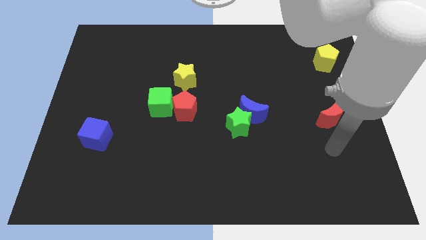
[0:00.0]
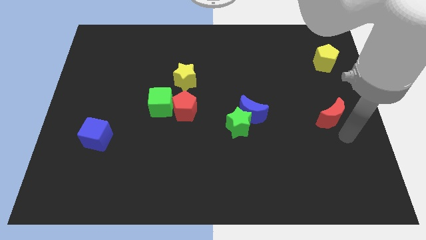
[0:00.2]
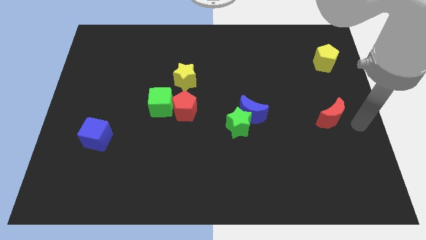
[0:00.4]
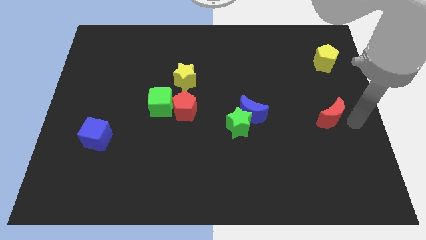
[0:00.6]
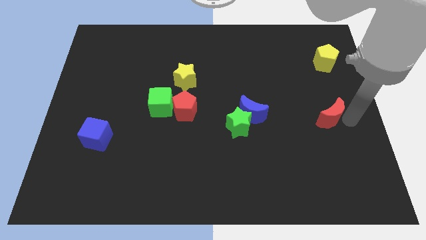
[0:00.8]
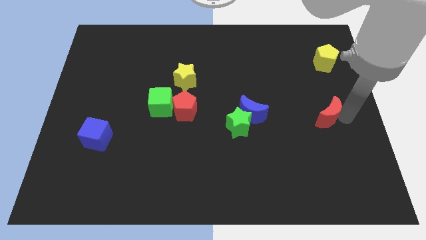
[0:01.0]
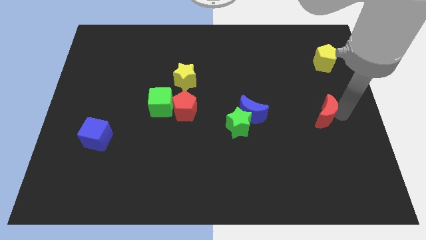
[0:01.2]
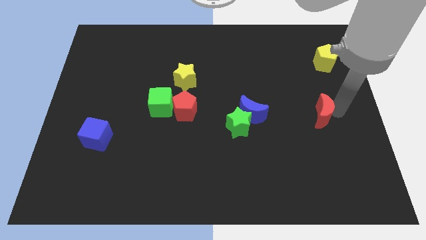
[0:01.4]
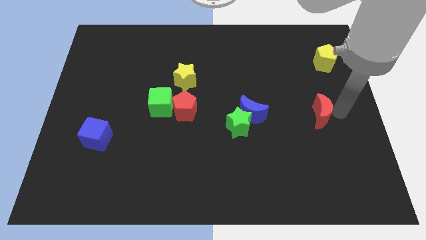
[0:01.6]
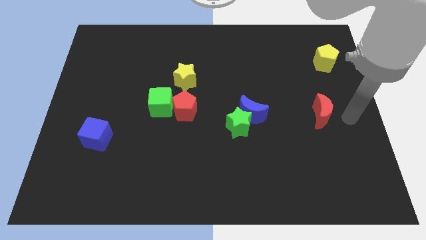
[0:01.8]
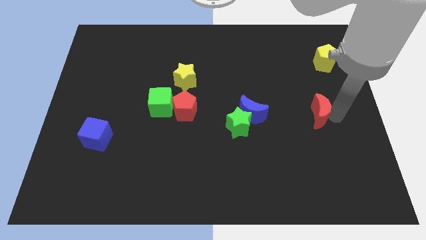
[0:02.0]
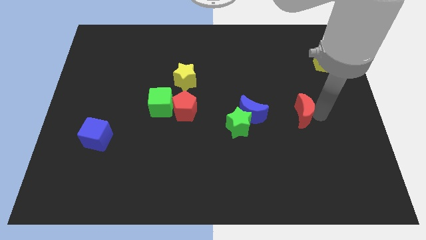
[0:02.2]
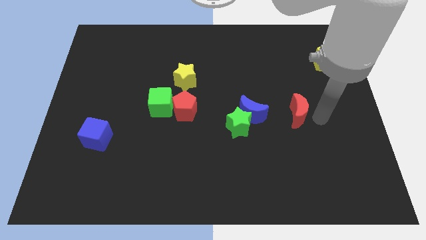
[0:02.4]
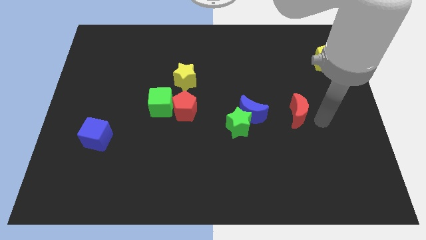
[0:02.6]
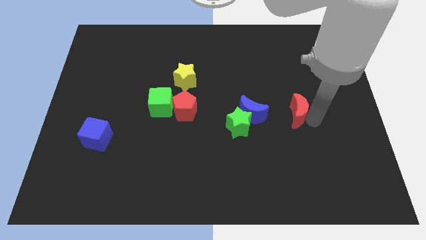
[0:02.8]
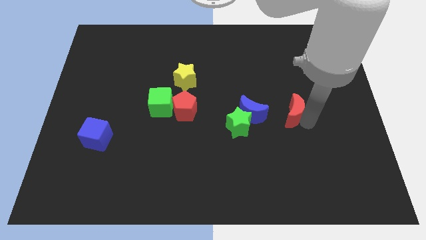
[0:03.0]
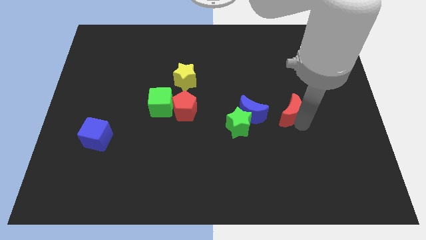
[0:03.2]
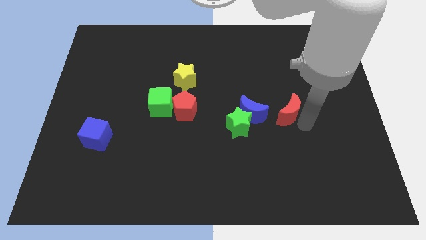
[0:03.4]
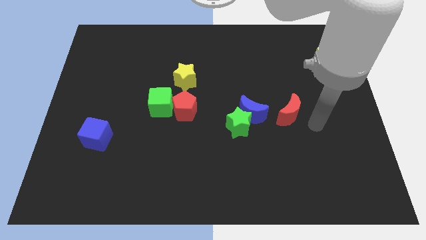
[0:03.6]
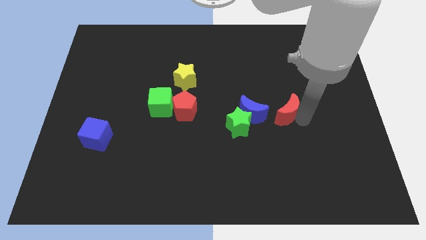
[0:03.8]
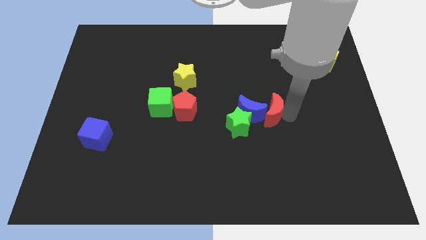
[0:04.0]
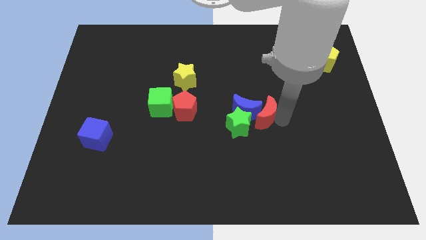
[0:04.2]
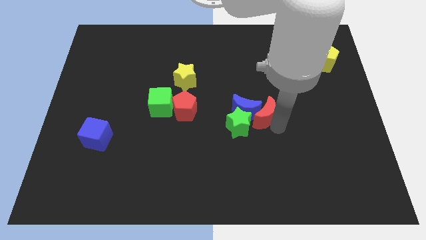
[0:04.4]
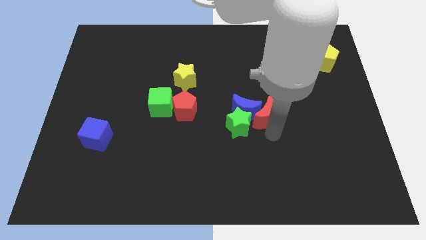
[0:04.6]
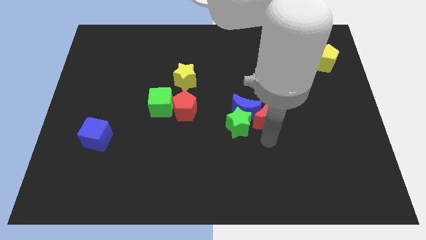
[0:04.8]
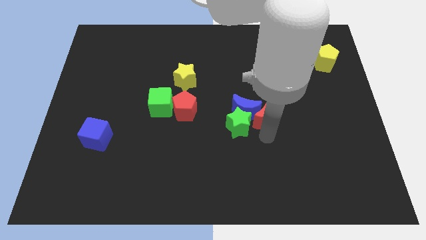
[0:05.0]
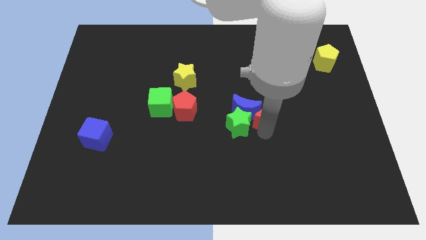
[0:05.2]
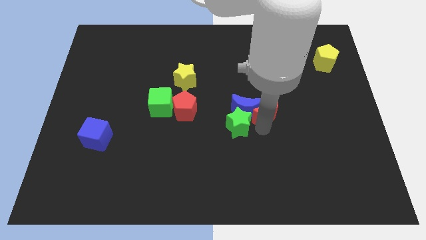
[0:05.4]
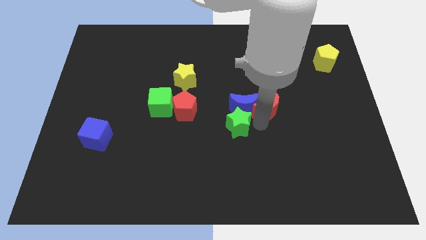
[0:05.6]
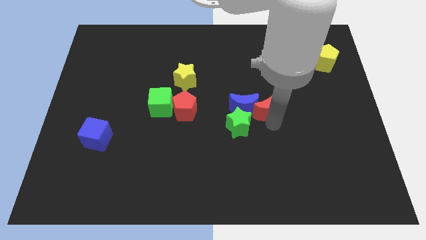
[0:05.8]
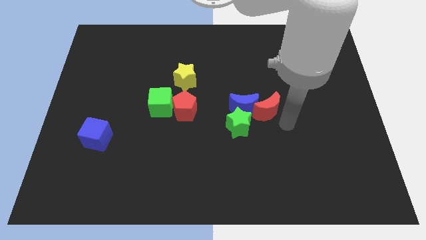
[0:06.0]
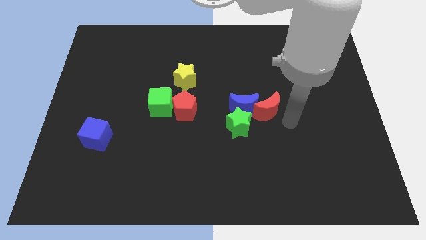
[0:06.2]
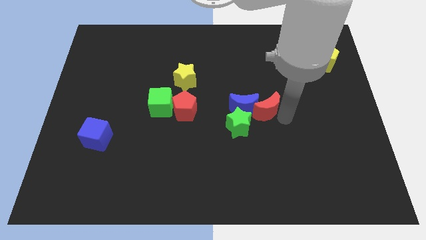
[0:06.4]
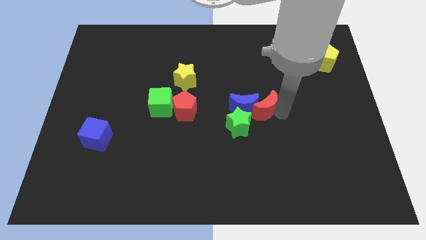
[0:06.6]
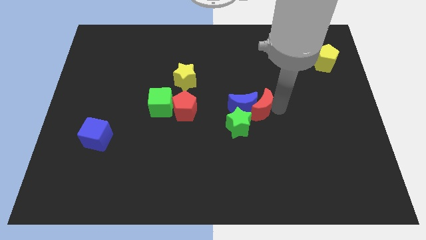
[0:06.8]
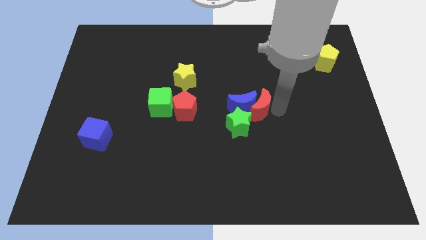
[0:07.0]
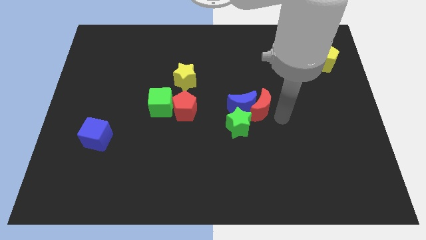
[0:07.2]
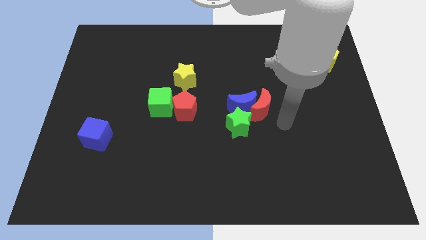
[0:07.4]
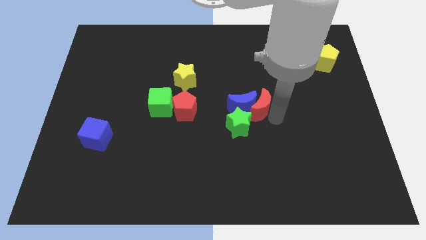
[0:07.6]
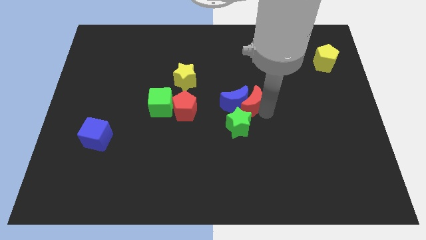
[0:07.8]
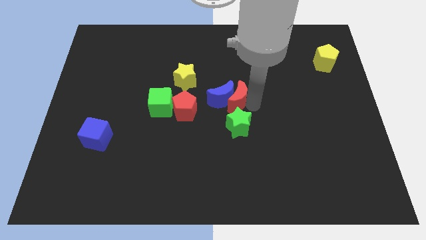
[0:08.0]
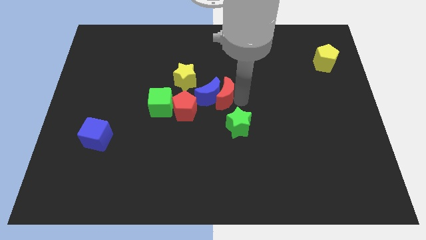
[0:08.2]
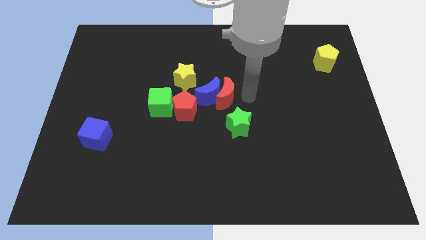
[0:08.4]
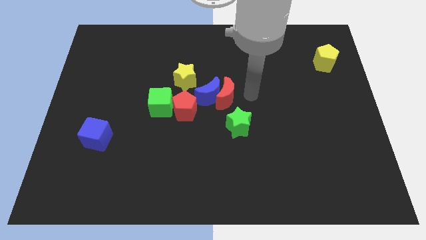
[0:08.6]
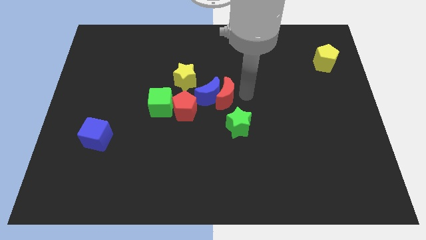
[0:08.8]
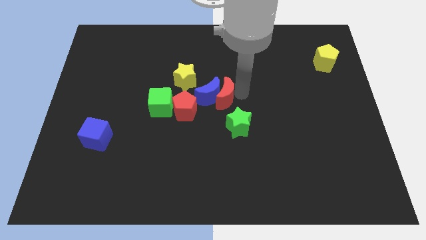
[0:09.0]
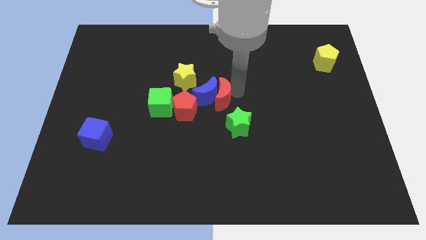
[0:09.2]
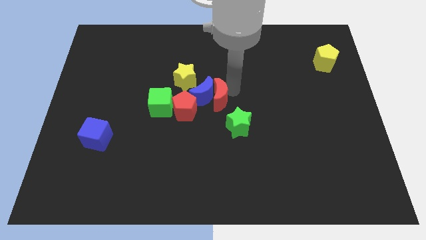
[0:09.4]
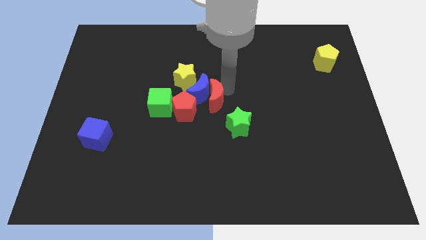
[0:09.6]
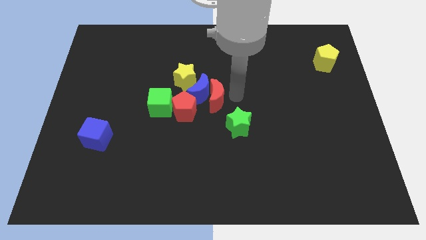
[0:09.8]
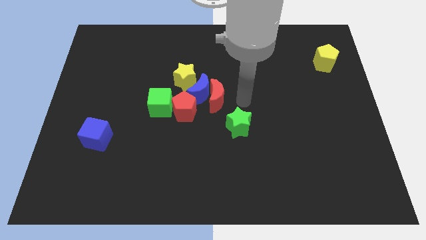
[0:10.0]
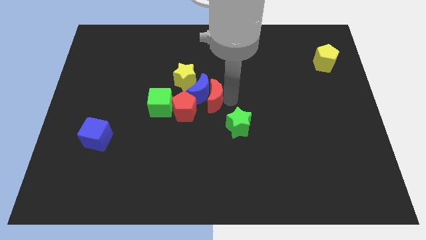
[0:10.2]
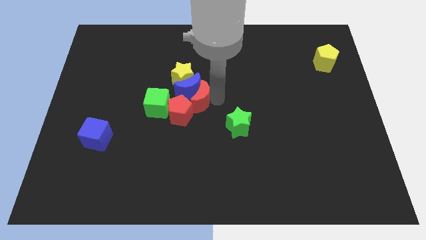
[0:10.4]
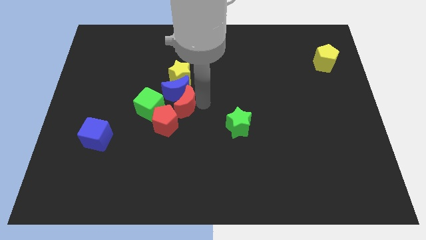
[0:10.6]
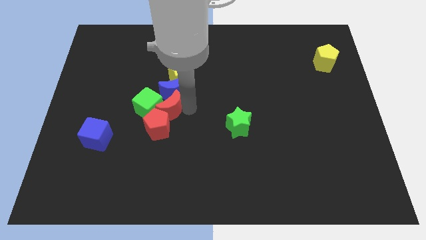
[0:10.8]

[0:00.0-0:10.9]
push the red moon to the green cube

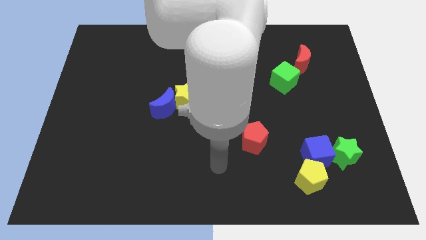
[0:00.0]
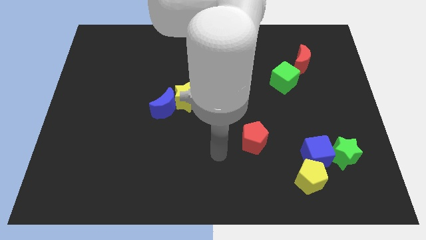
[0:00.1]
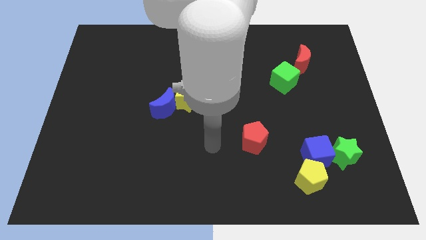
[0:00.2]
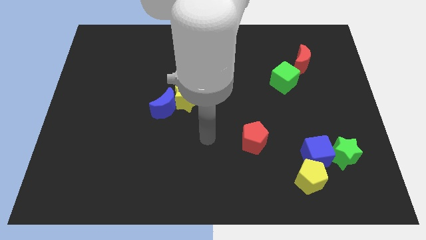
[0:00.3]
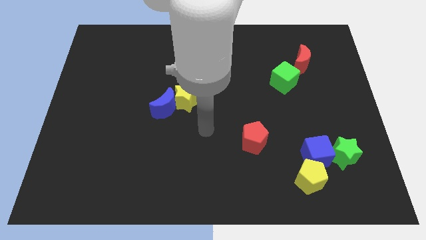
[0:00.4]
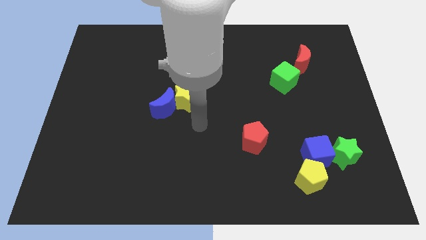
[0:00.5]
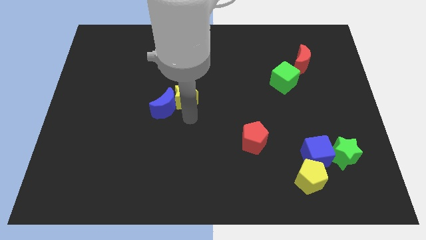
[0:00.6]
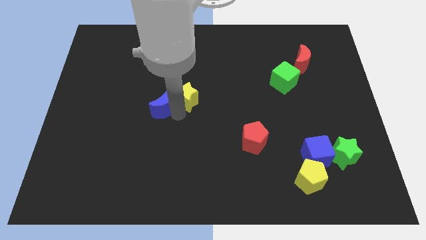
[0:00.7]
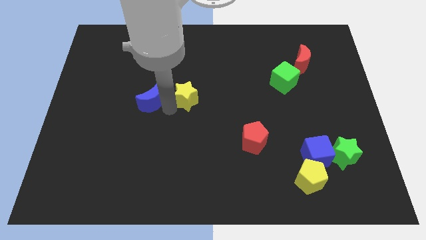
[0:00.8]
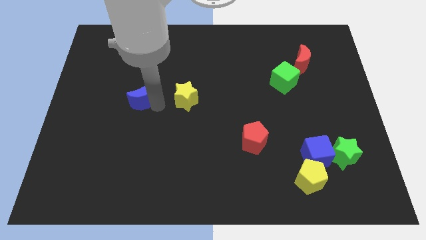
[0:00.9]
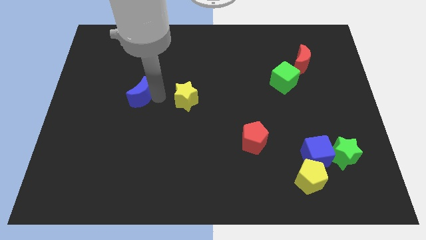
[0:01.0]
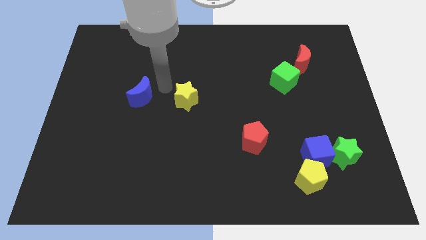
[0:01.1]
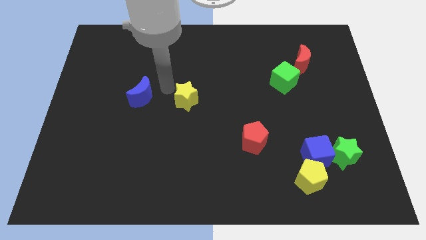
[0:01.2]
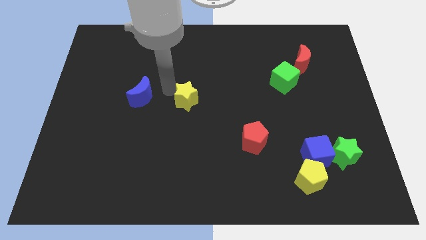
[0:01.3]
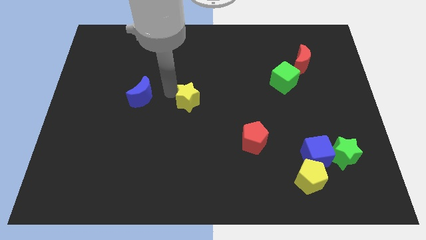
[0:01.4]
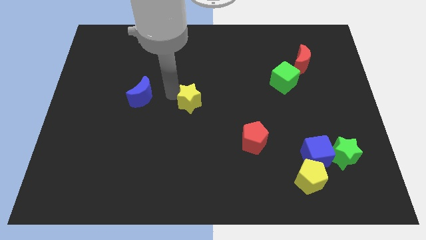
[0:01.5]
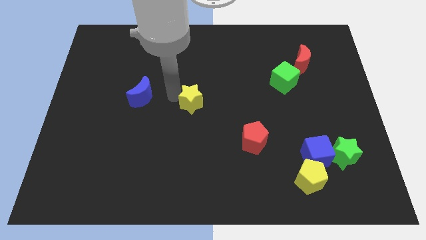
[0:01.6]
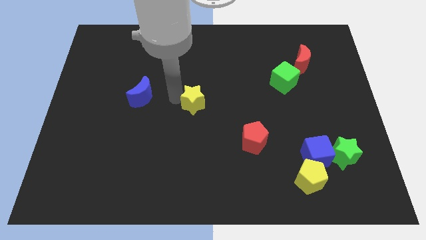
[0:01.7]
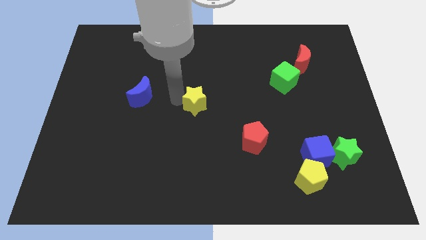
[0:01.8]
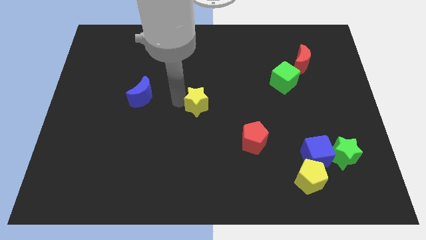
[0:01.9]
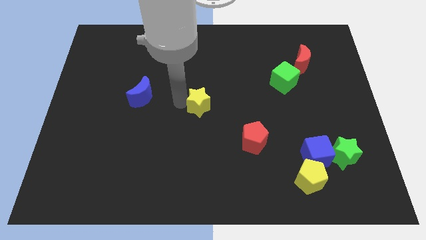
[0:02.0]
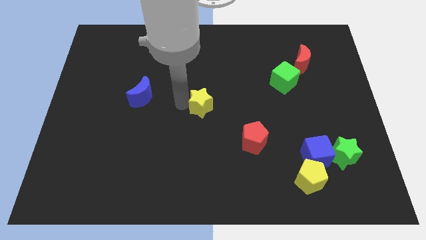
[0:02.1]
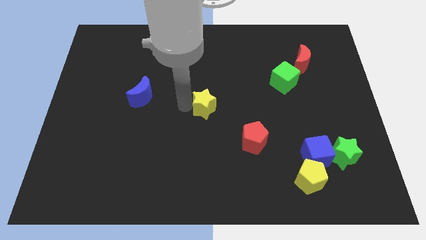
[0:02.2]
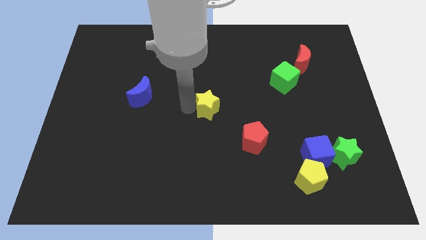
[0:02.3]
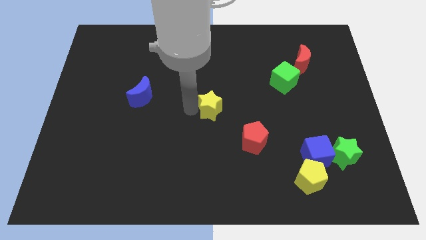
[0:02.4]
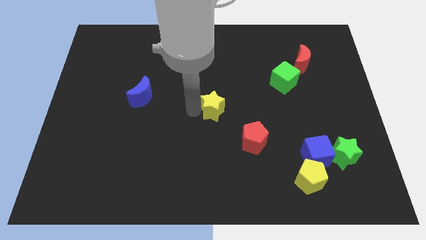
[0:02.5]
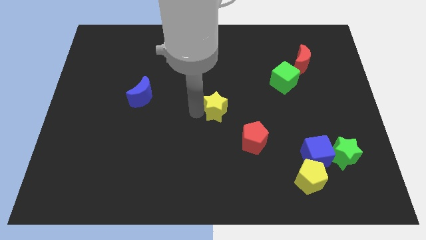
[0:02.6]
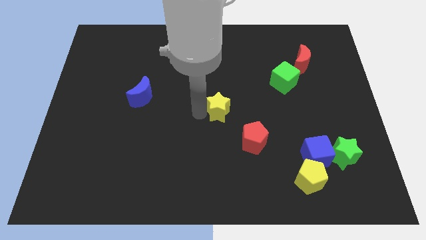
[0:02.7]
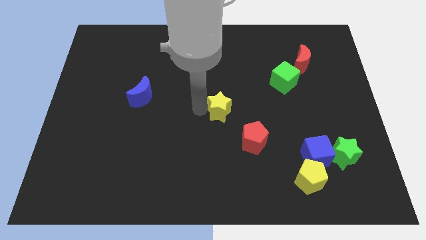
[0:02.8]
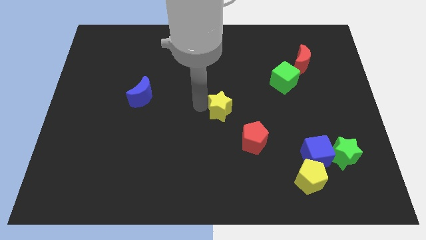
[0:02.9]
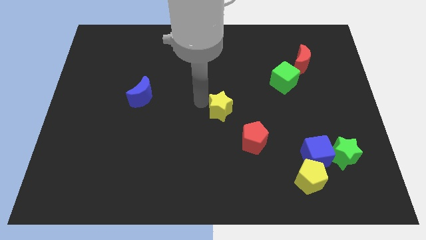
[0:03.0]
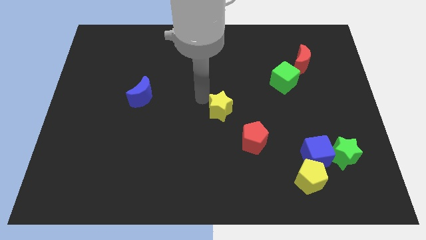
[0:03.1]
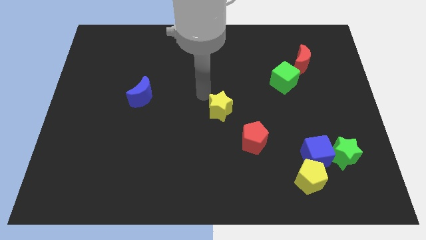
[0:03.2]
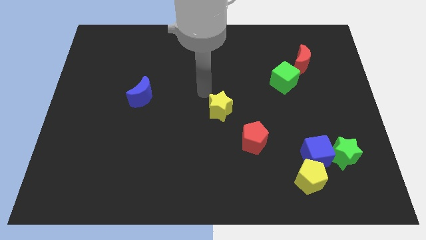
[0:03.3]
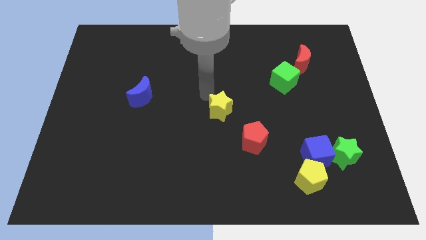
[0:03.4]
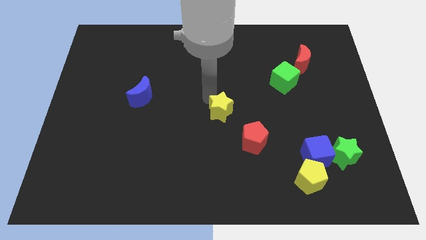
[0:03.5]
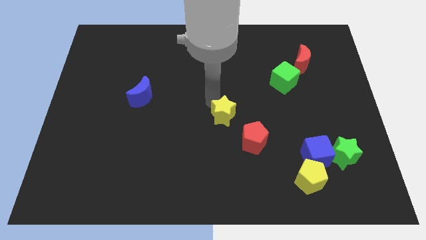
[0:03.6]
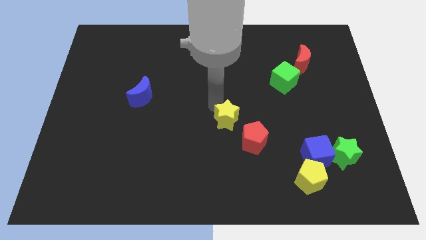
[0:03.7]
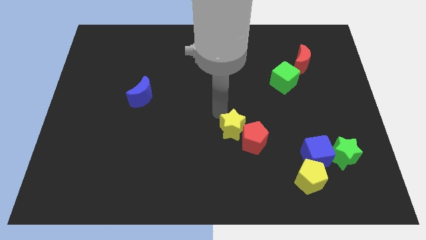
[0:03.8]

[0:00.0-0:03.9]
put the yellow star to the red pentagon
